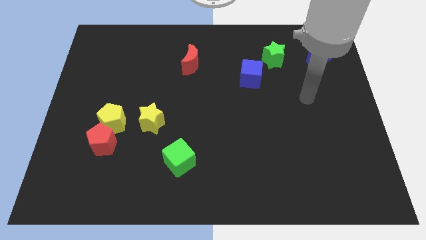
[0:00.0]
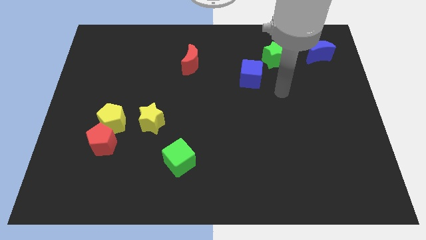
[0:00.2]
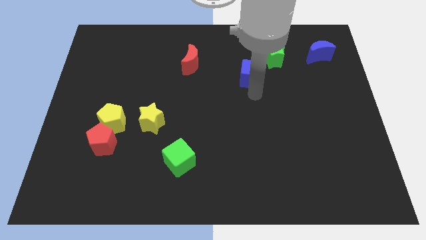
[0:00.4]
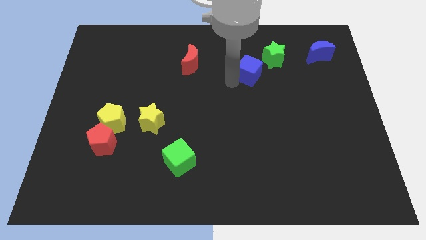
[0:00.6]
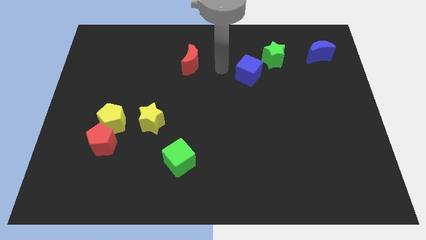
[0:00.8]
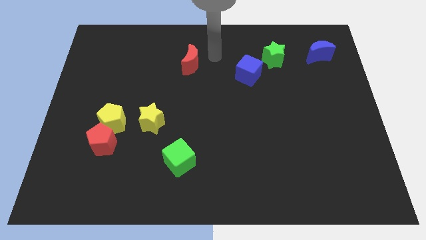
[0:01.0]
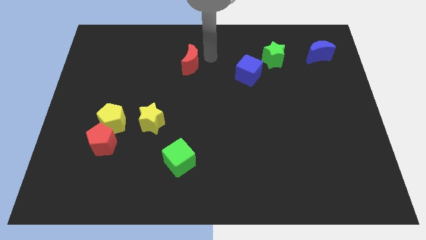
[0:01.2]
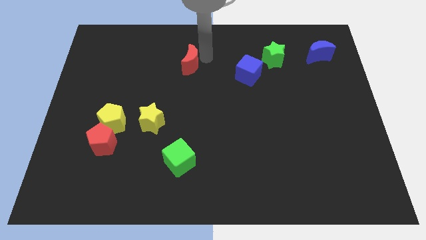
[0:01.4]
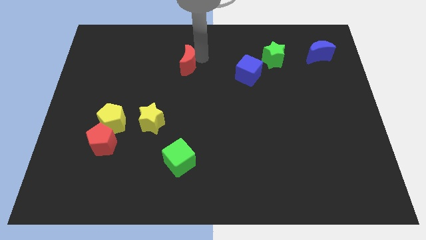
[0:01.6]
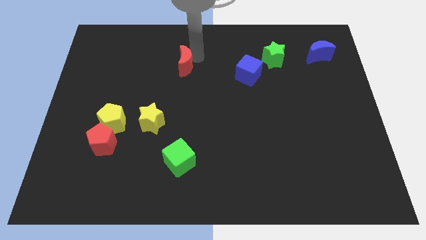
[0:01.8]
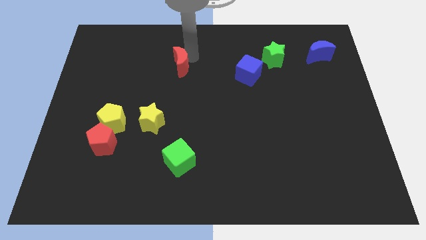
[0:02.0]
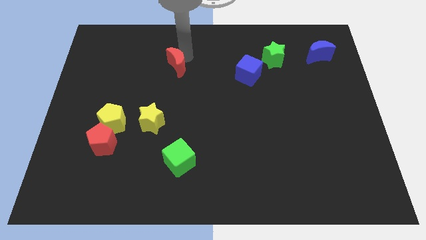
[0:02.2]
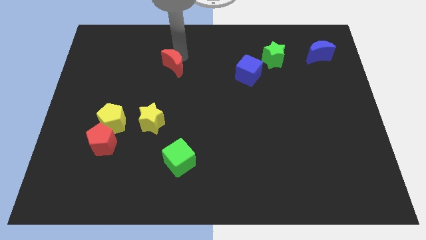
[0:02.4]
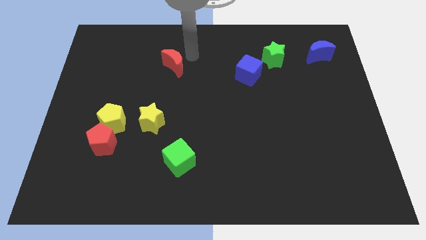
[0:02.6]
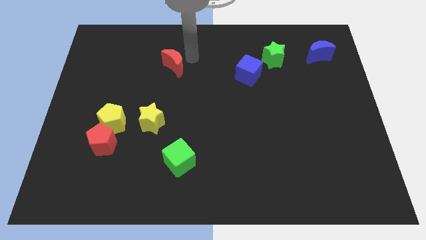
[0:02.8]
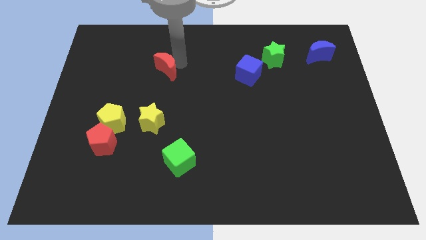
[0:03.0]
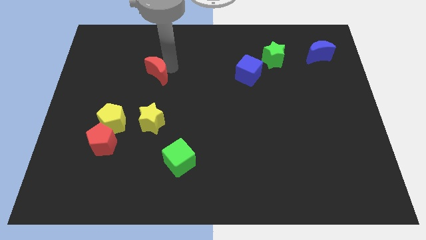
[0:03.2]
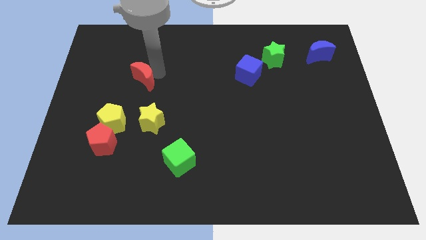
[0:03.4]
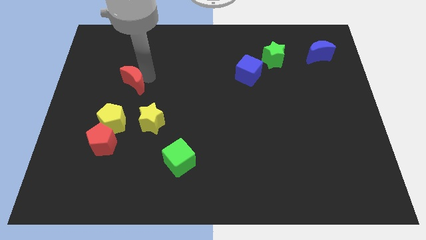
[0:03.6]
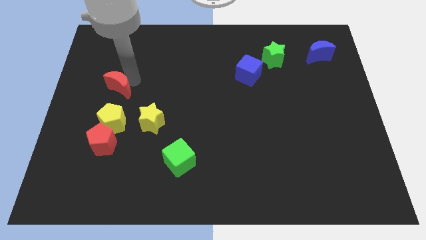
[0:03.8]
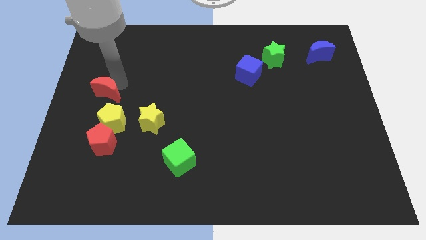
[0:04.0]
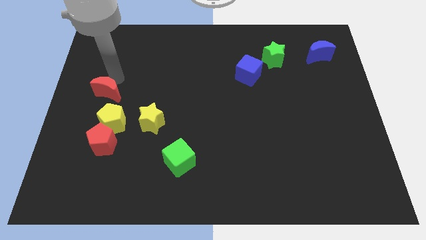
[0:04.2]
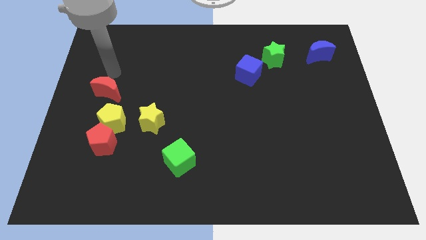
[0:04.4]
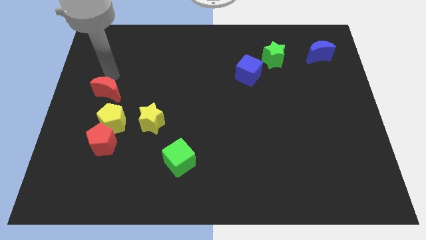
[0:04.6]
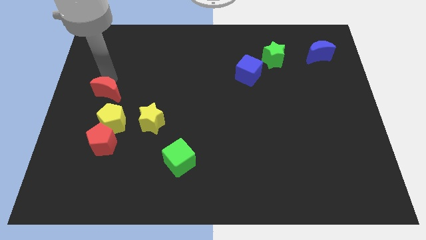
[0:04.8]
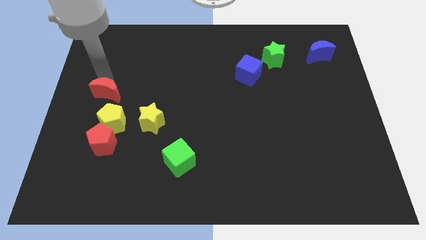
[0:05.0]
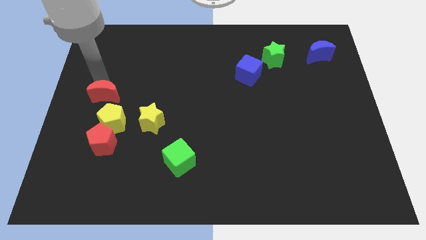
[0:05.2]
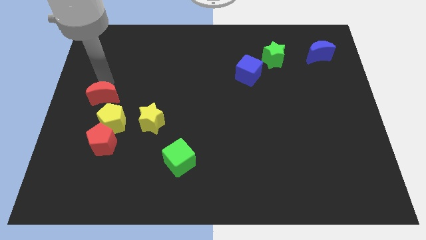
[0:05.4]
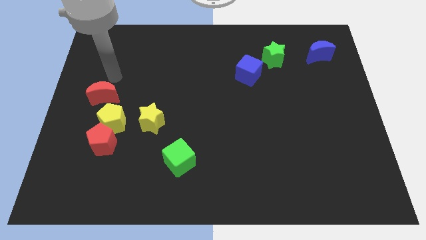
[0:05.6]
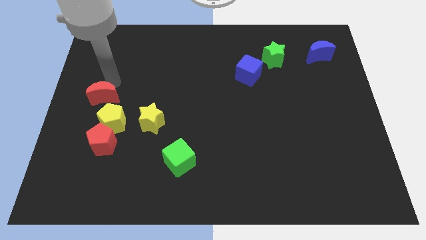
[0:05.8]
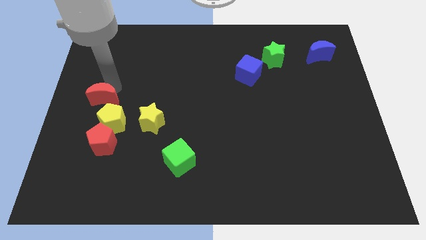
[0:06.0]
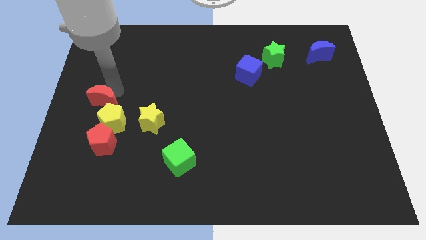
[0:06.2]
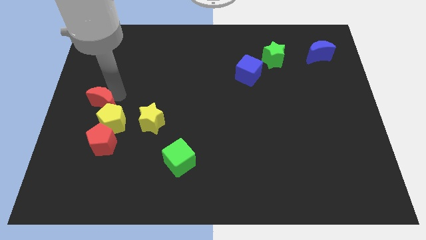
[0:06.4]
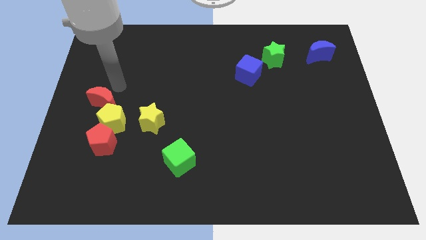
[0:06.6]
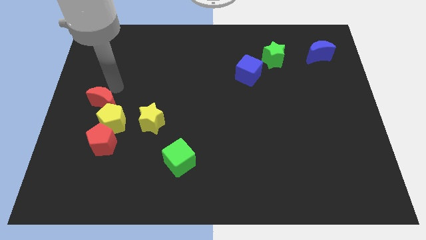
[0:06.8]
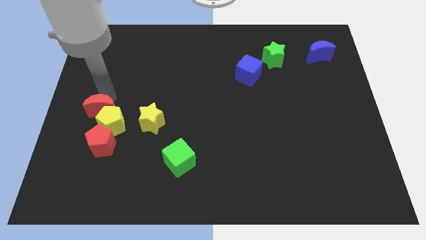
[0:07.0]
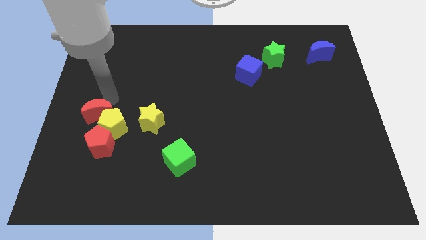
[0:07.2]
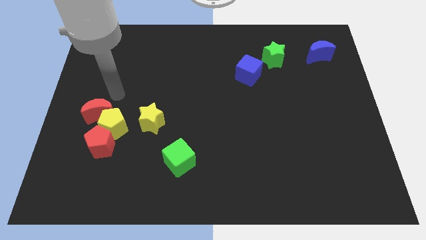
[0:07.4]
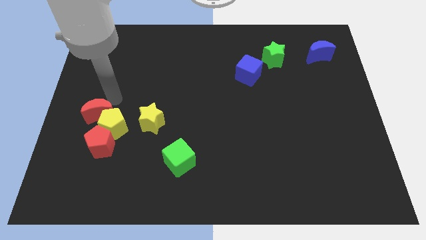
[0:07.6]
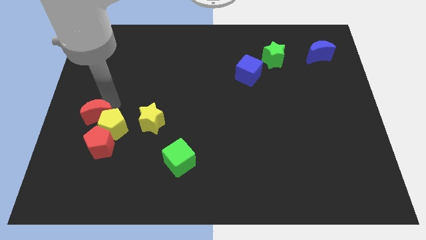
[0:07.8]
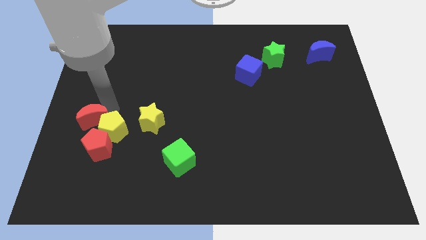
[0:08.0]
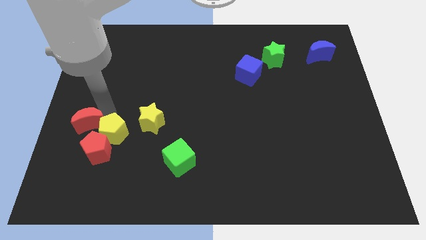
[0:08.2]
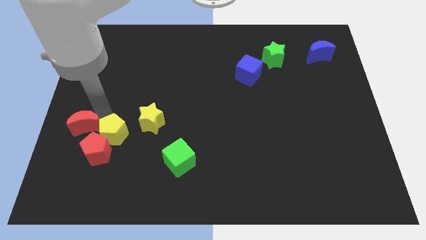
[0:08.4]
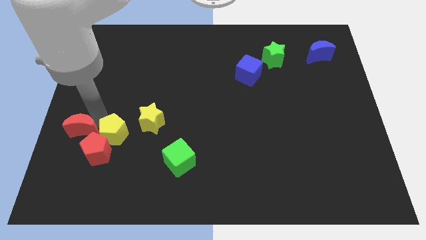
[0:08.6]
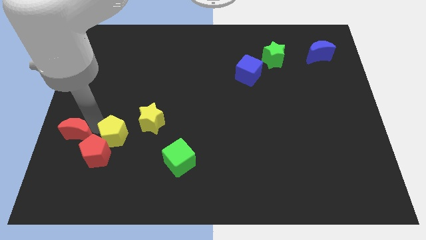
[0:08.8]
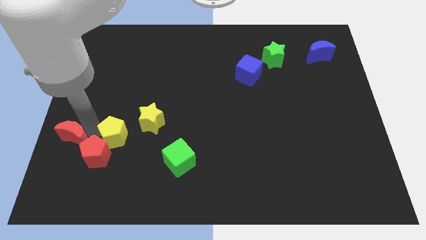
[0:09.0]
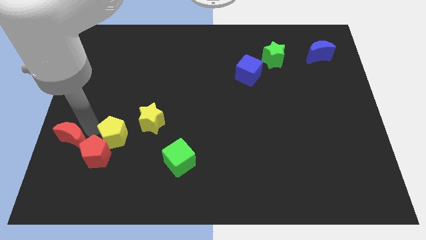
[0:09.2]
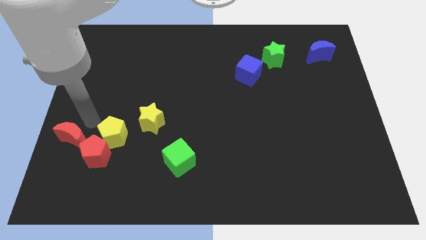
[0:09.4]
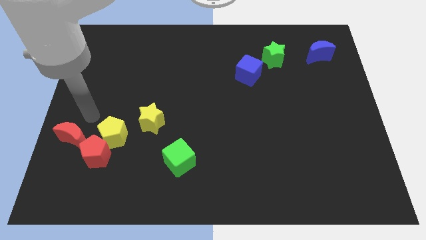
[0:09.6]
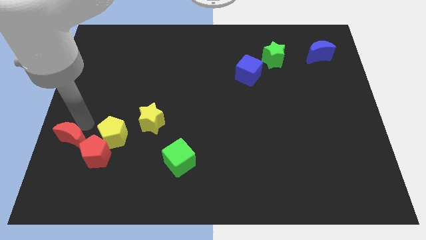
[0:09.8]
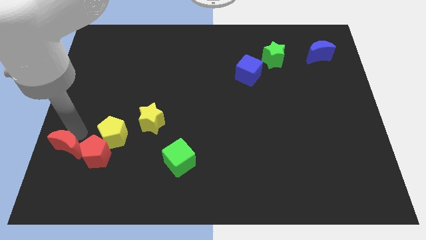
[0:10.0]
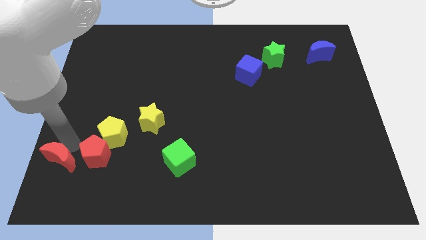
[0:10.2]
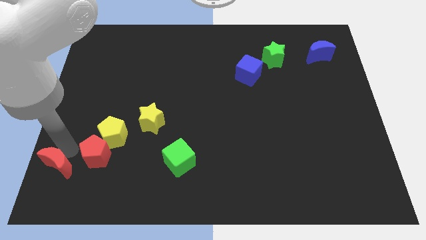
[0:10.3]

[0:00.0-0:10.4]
slide the red moon to the bottom left of the board
